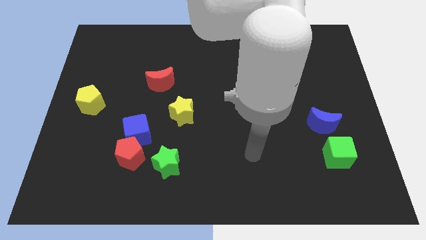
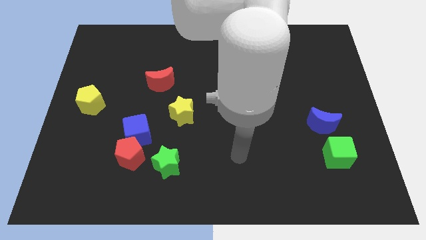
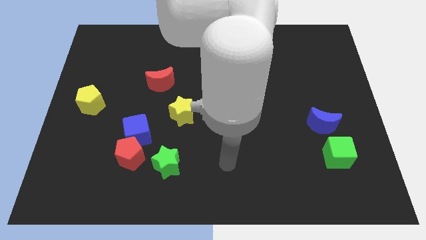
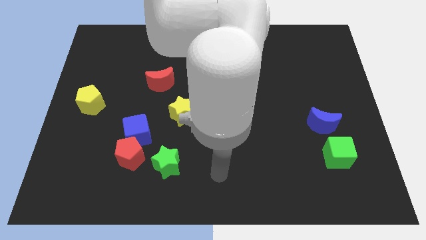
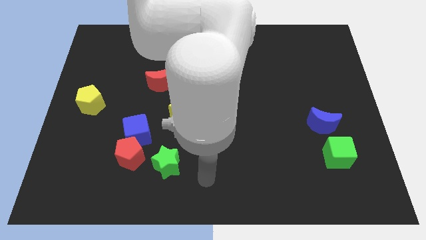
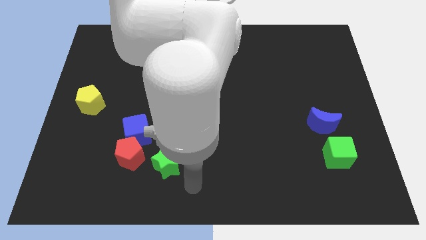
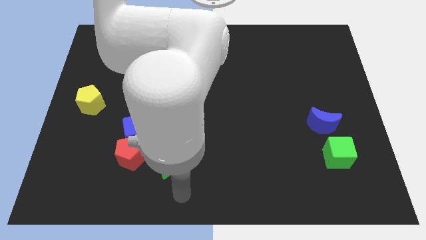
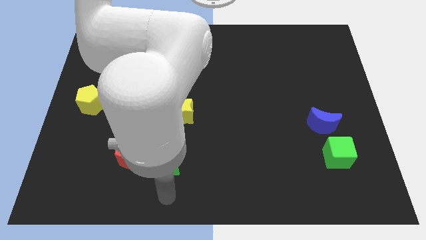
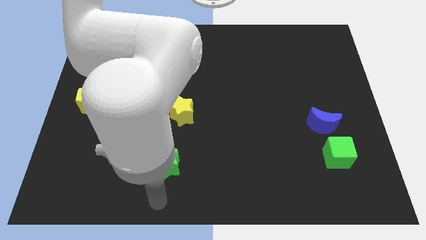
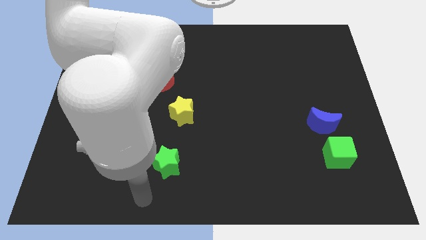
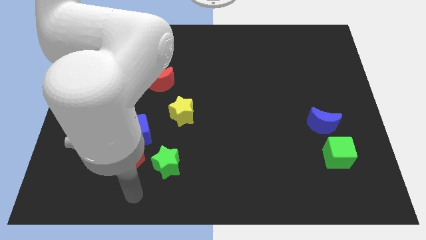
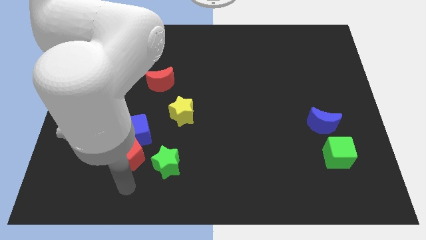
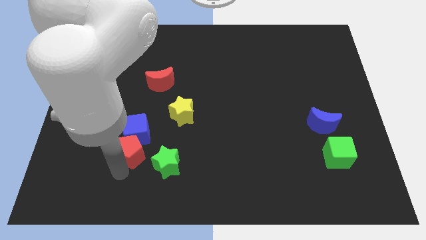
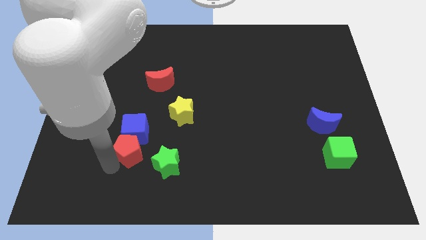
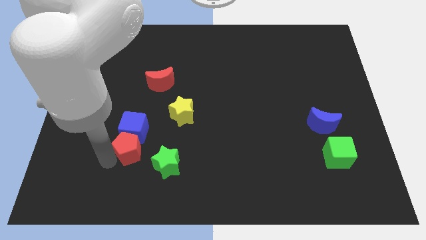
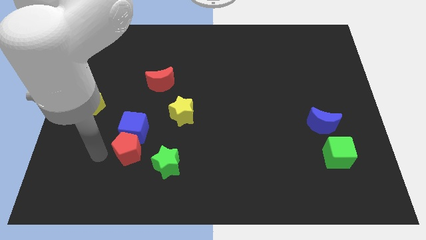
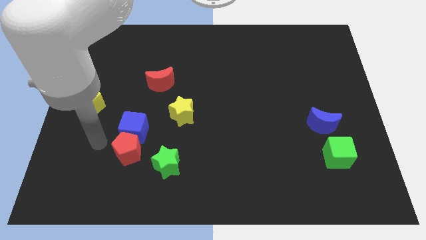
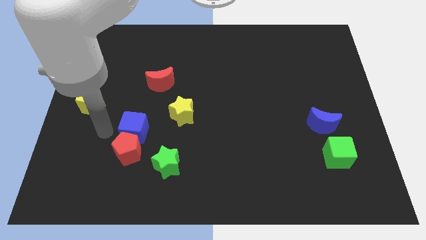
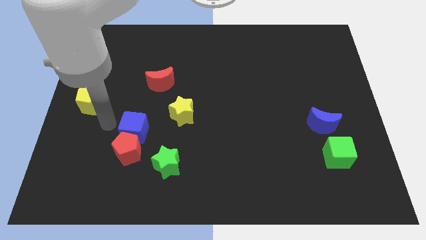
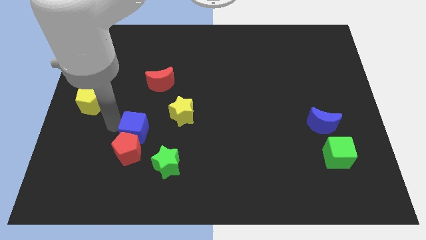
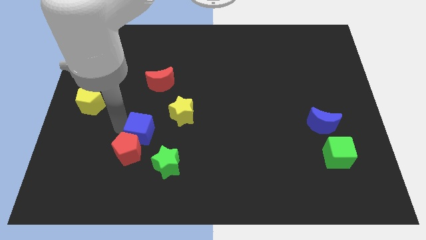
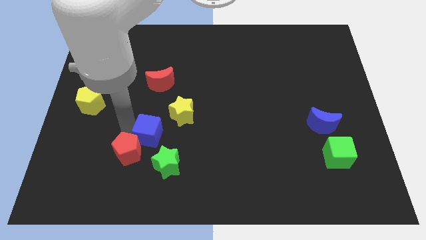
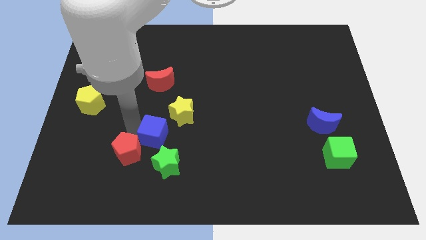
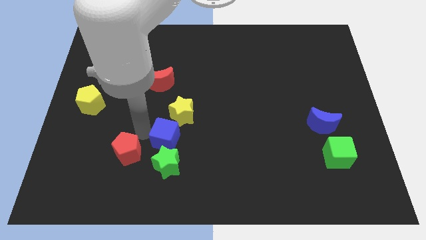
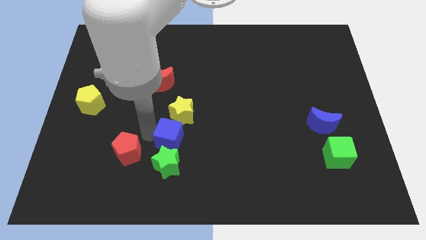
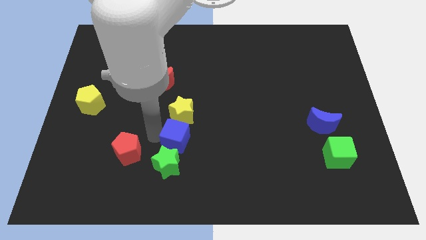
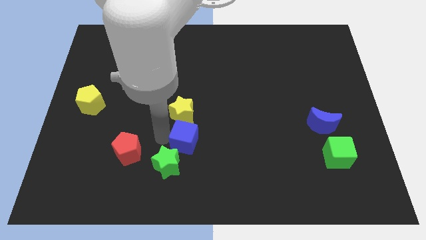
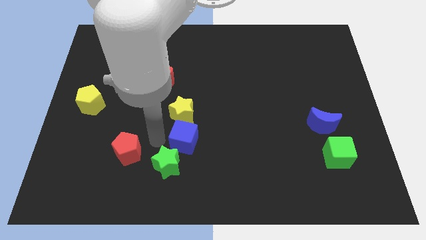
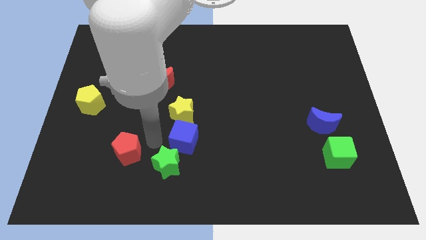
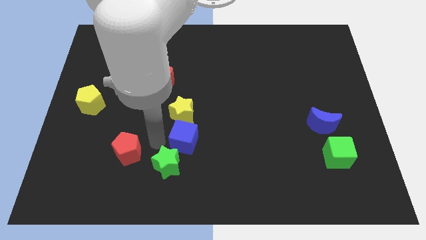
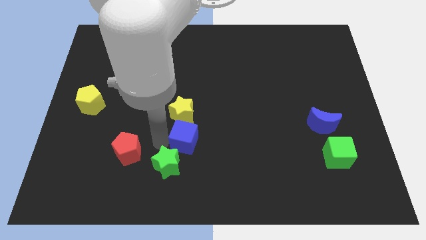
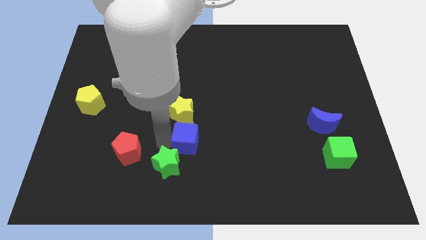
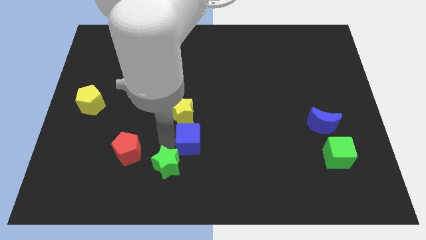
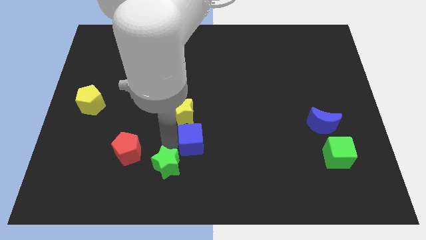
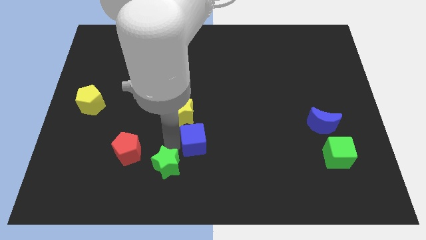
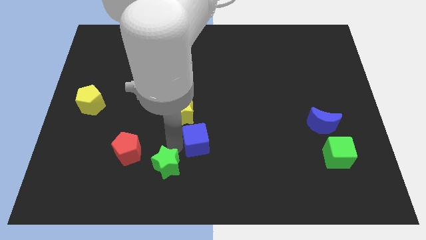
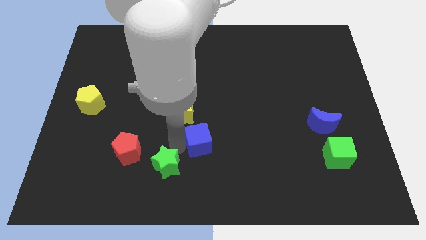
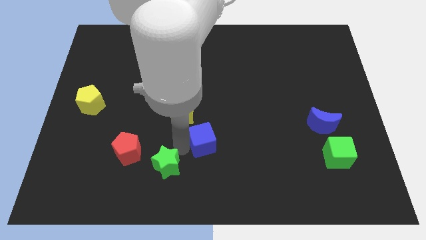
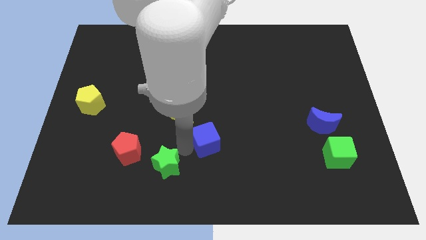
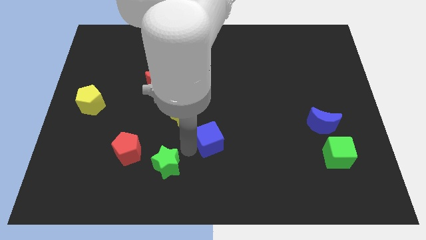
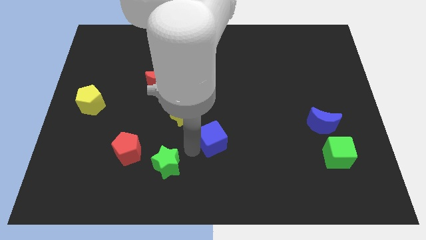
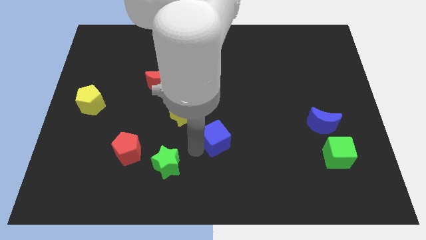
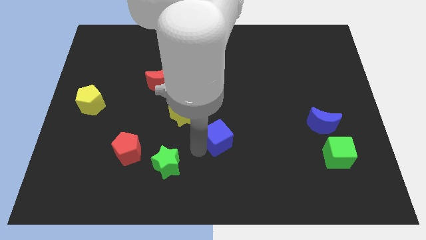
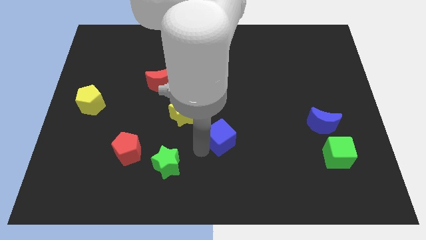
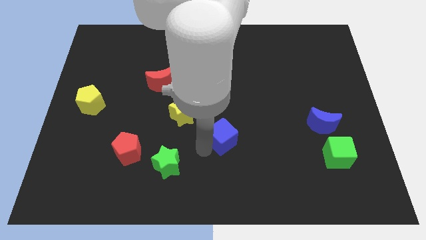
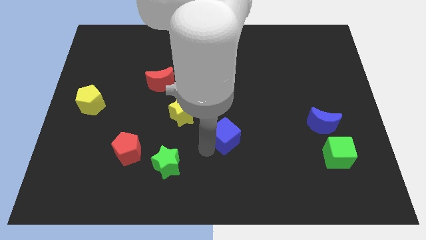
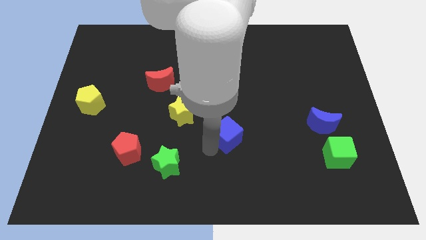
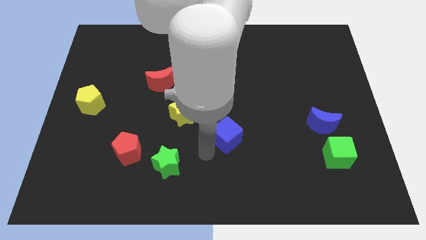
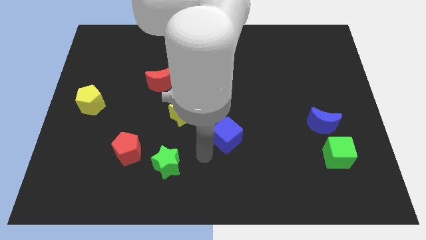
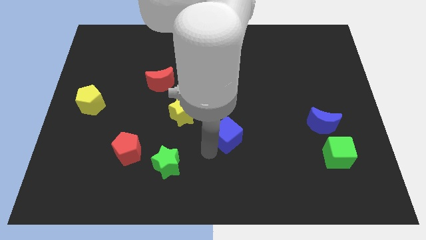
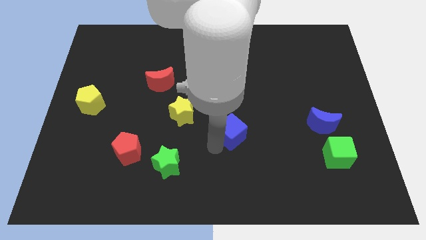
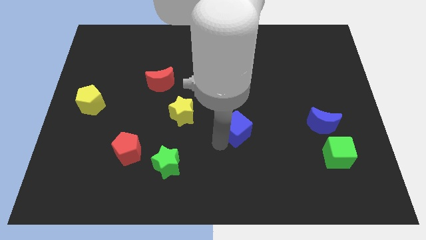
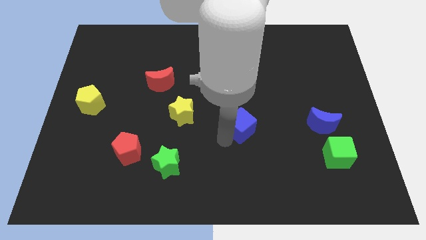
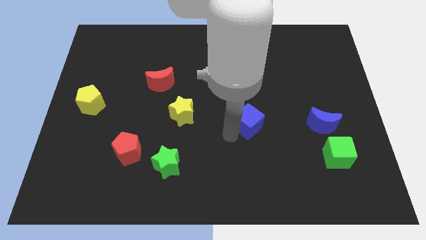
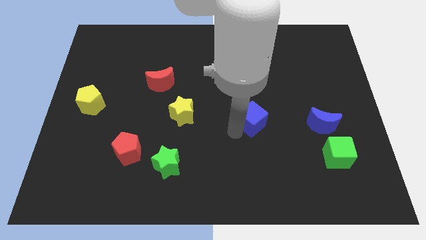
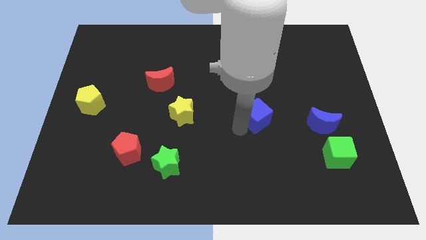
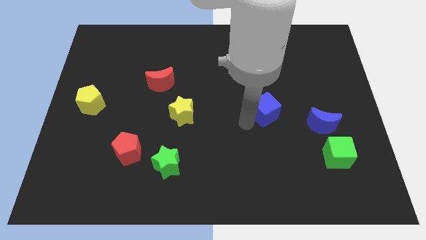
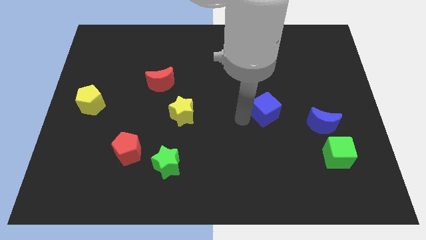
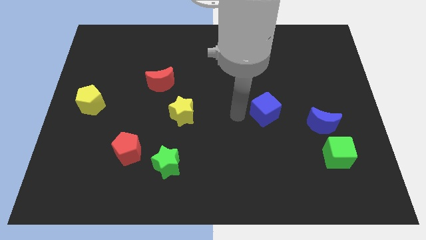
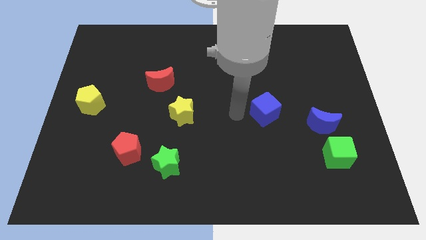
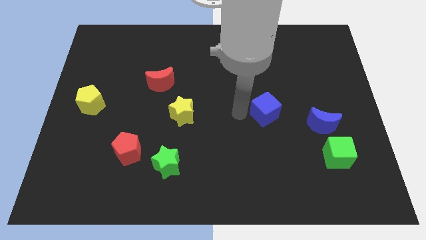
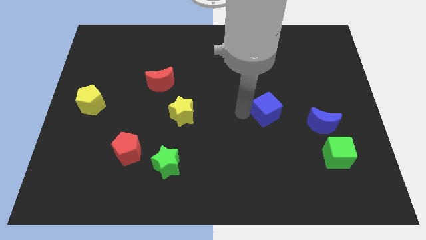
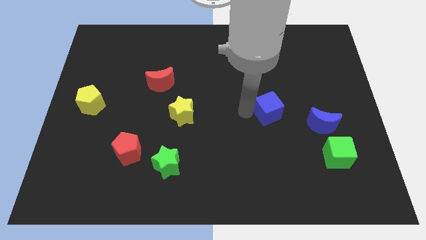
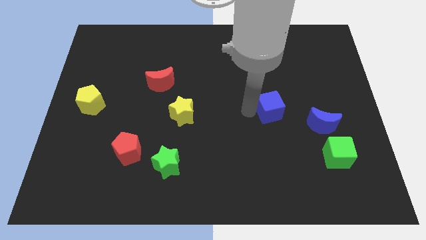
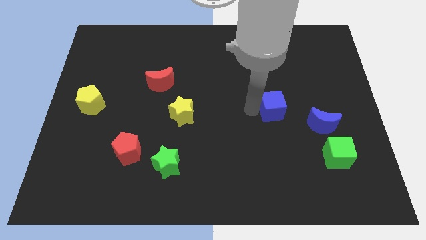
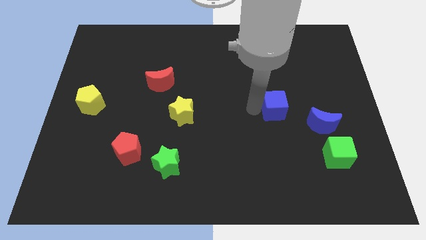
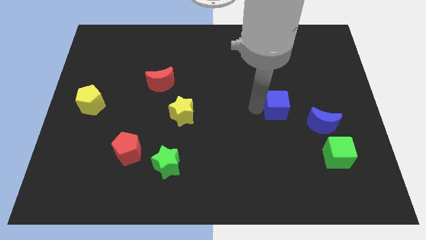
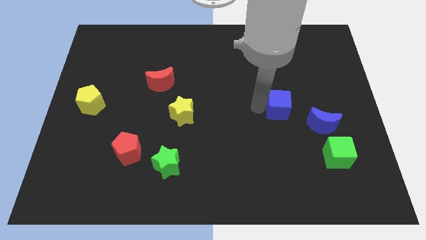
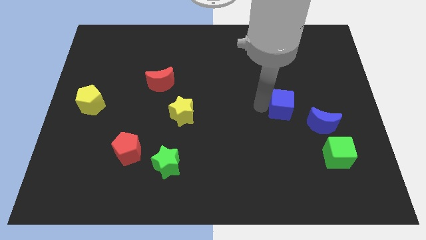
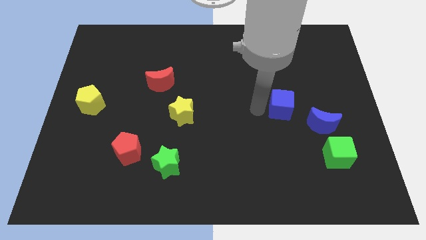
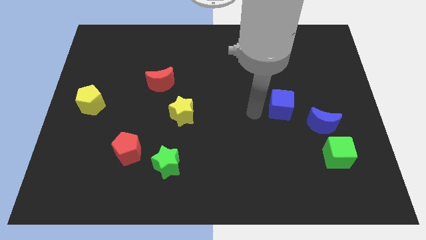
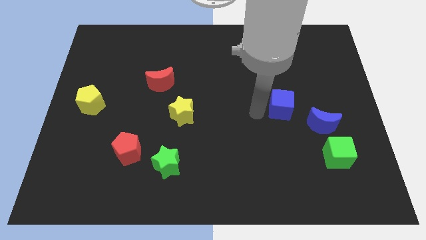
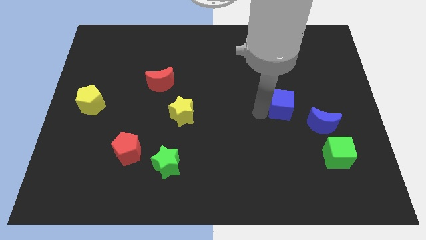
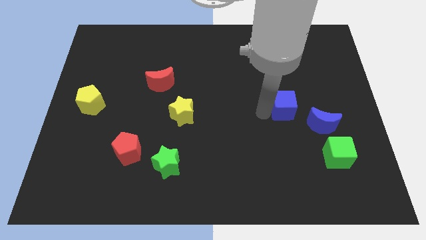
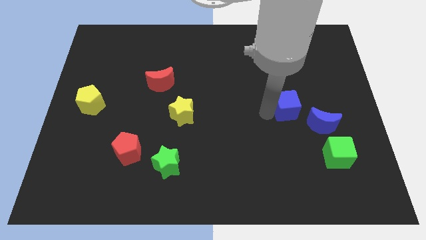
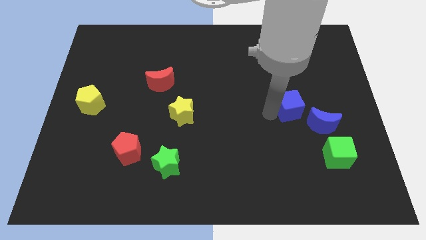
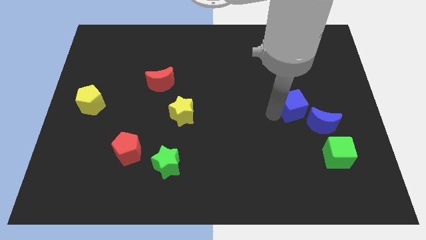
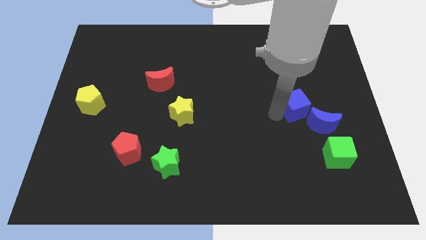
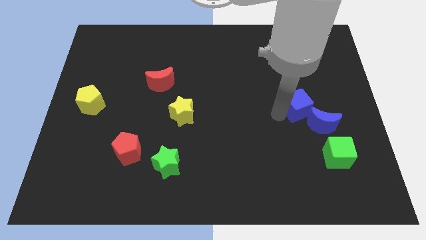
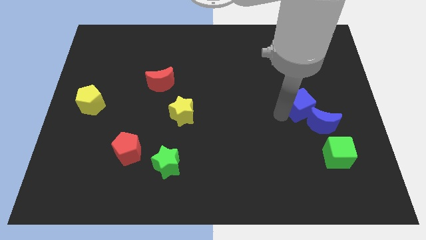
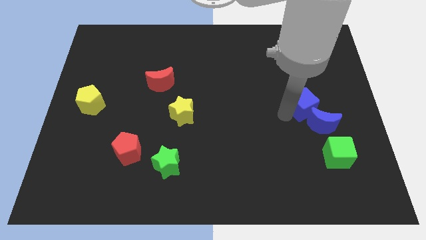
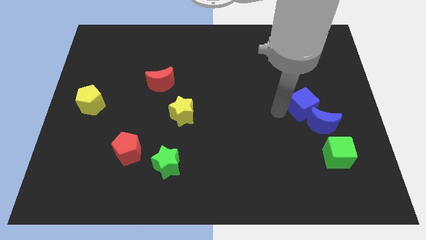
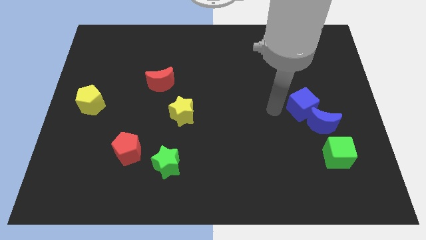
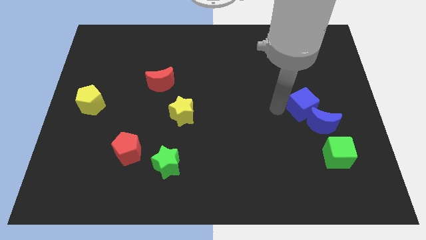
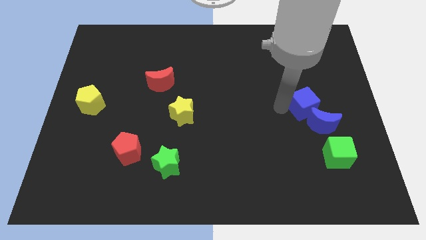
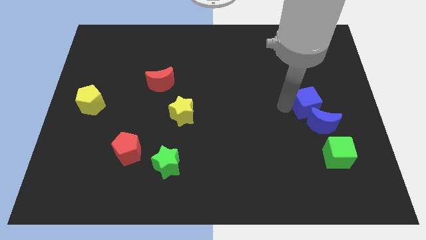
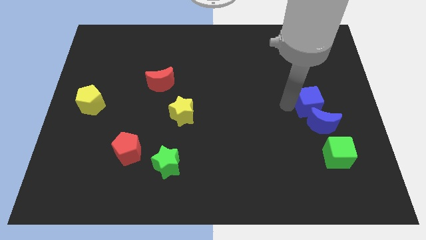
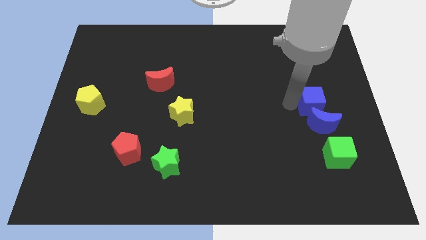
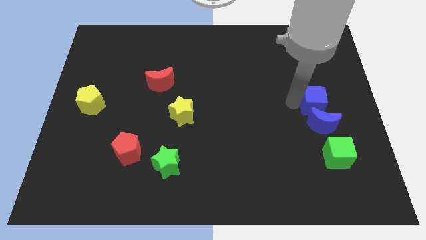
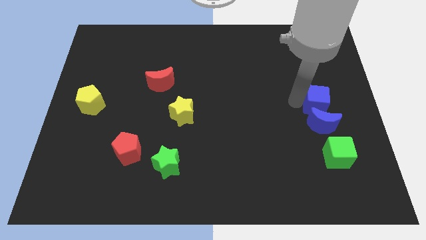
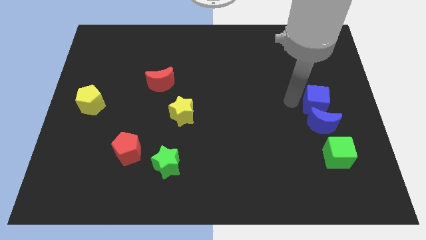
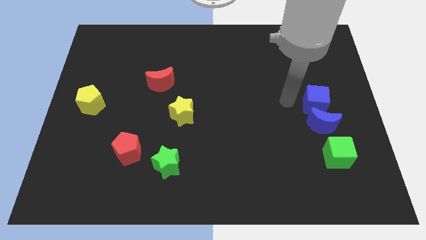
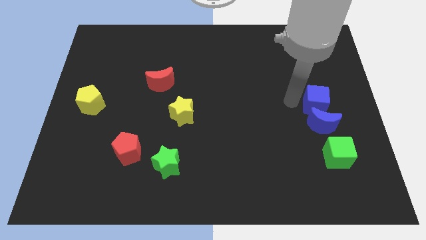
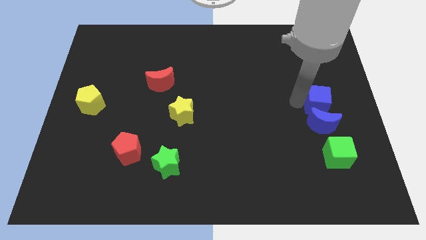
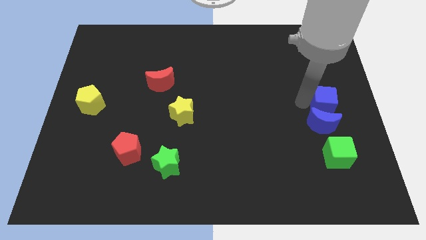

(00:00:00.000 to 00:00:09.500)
slide the blue cube to the right side of the board
